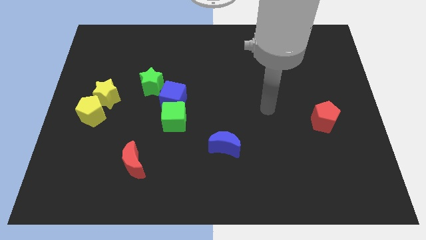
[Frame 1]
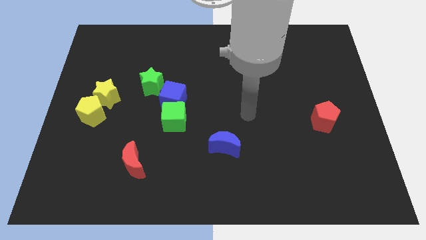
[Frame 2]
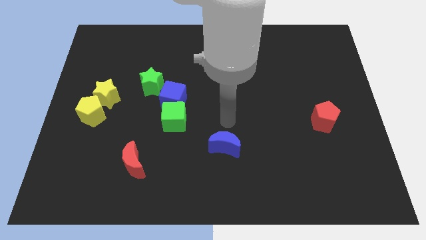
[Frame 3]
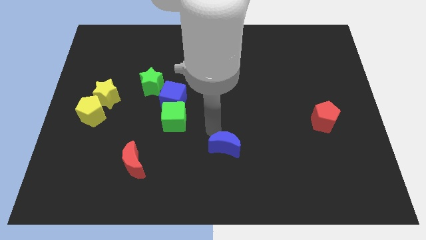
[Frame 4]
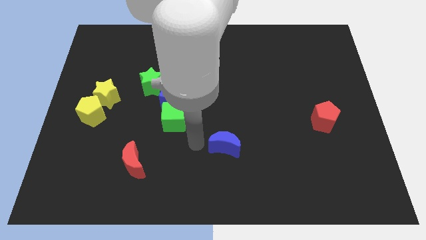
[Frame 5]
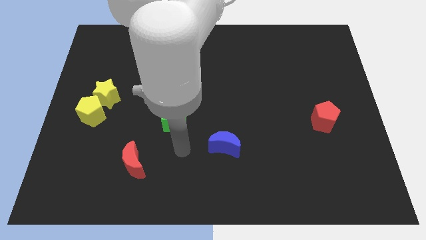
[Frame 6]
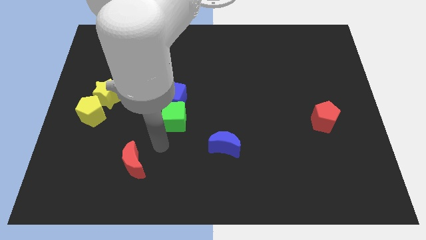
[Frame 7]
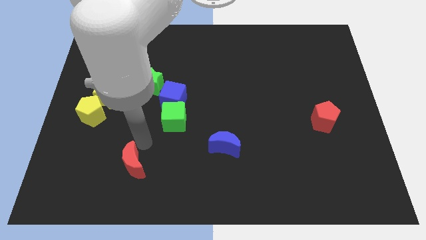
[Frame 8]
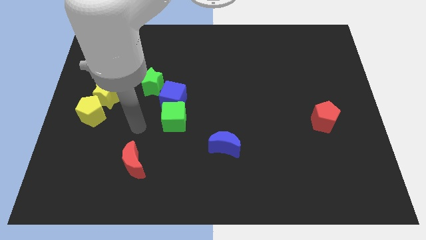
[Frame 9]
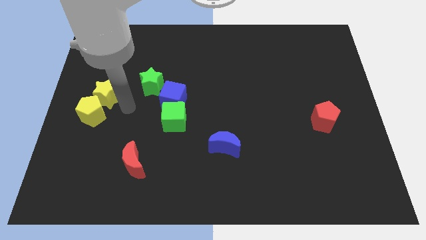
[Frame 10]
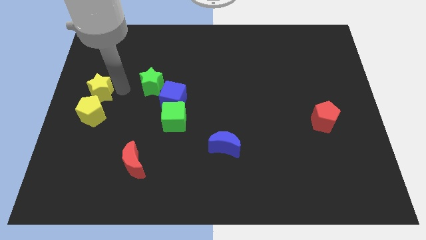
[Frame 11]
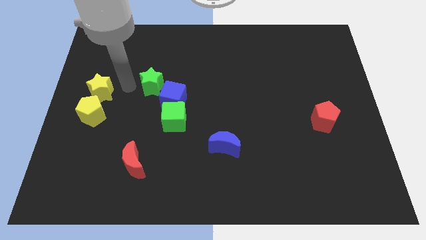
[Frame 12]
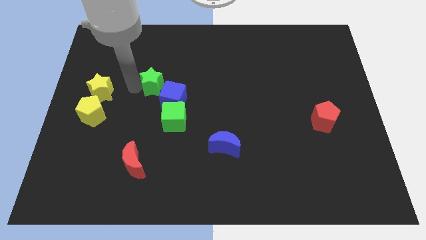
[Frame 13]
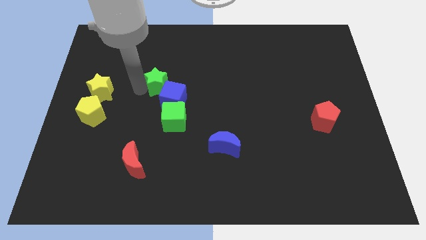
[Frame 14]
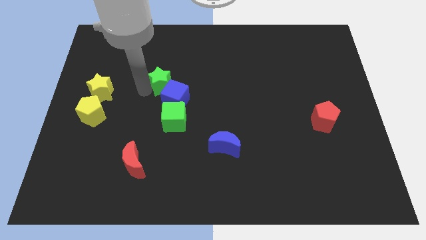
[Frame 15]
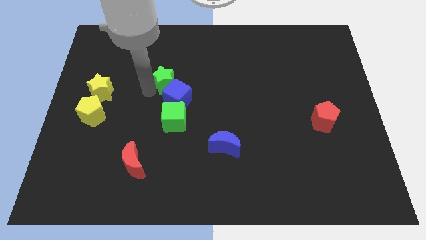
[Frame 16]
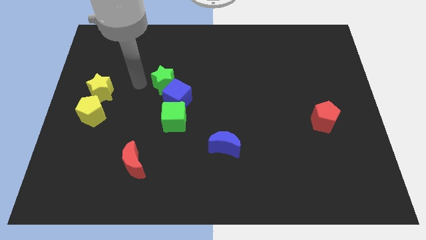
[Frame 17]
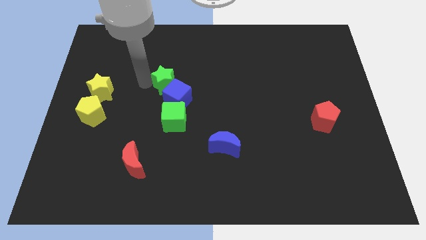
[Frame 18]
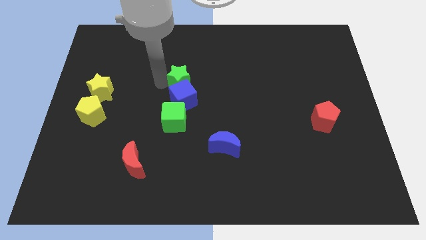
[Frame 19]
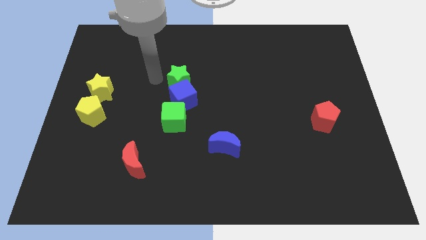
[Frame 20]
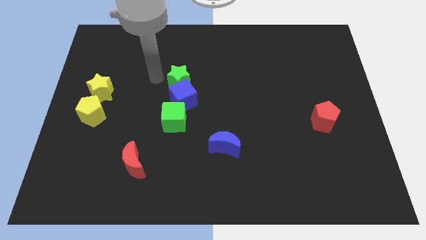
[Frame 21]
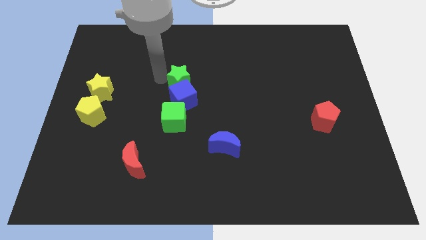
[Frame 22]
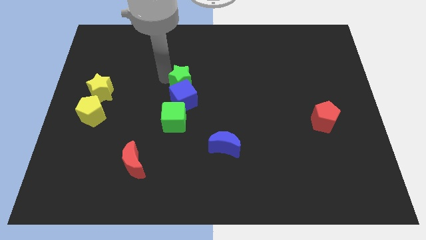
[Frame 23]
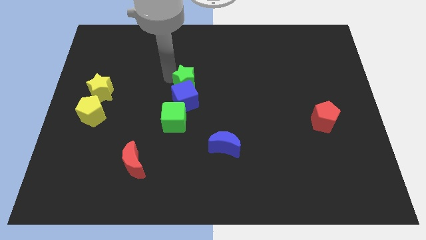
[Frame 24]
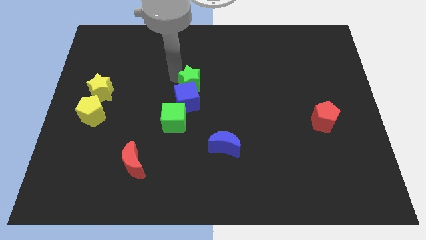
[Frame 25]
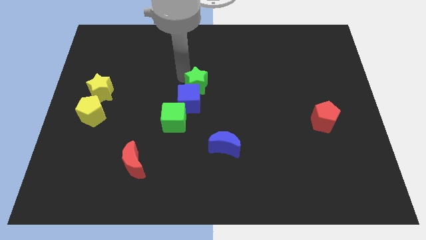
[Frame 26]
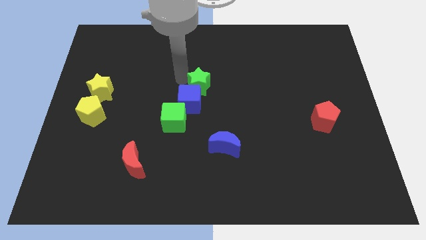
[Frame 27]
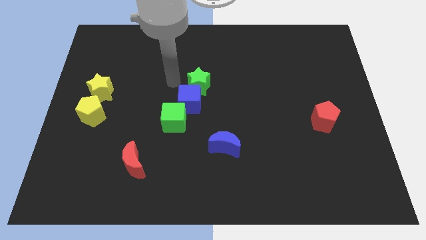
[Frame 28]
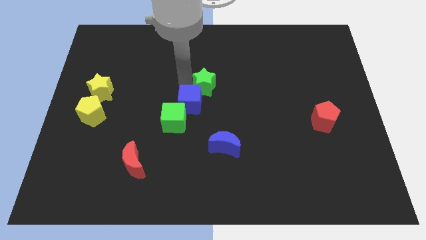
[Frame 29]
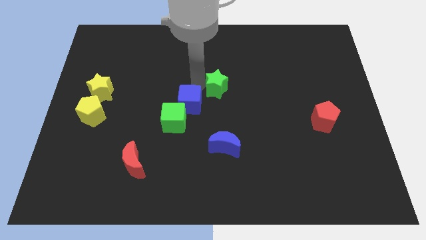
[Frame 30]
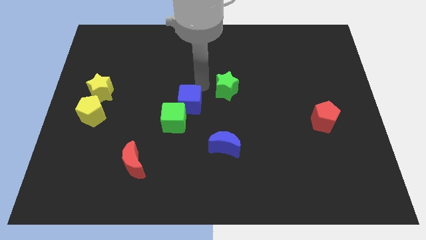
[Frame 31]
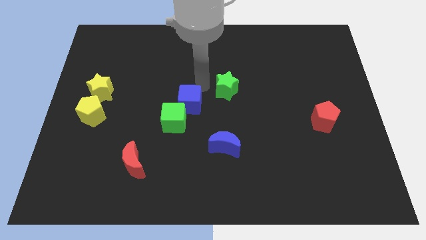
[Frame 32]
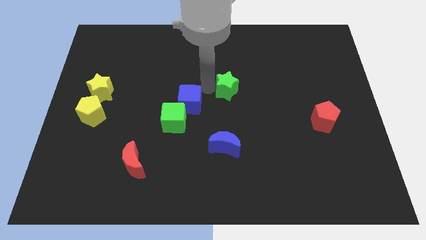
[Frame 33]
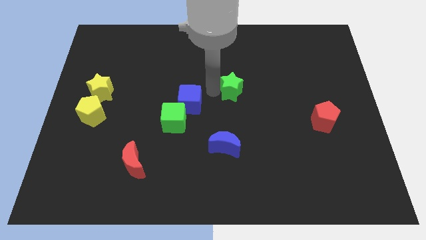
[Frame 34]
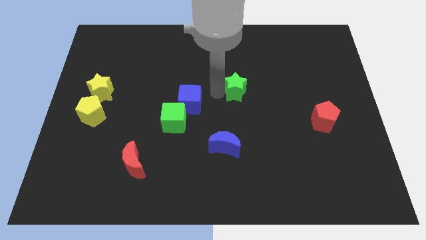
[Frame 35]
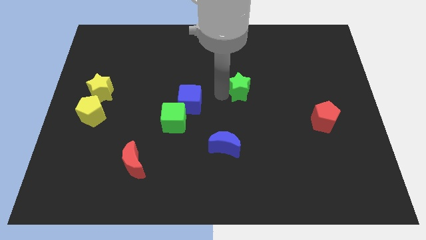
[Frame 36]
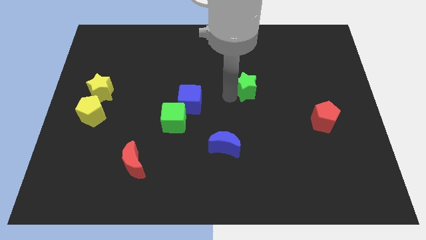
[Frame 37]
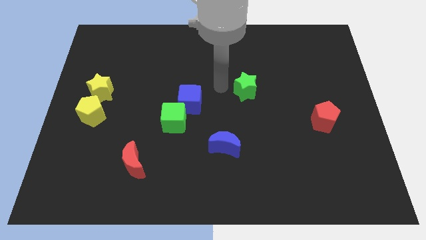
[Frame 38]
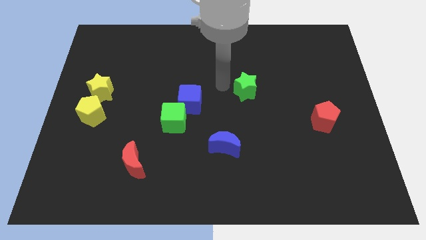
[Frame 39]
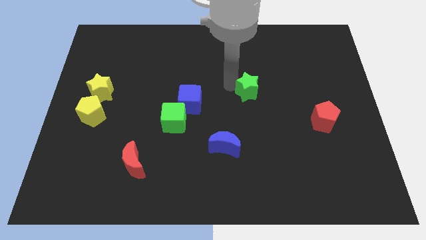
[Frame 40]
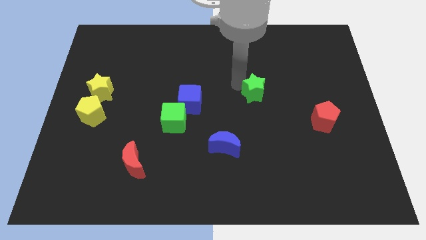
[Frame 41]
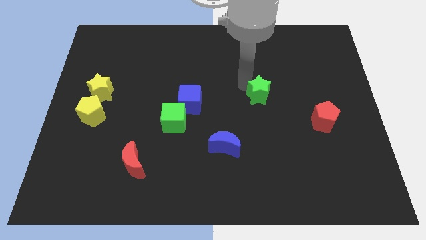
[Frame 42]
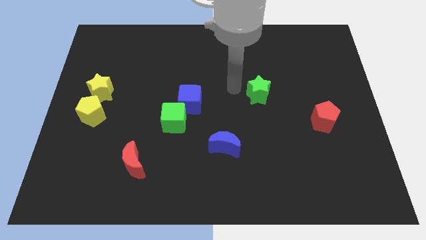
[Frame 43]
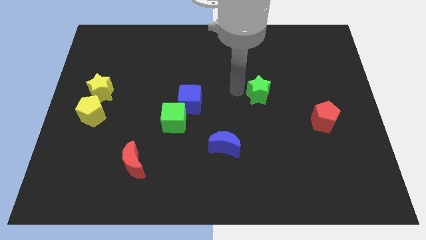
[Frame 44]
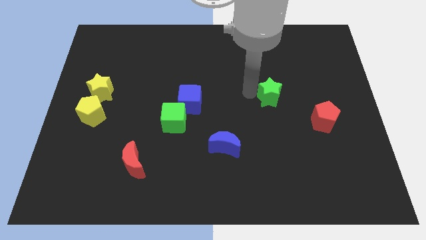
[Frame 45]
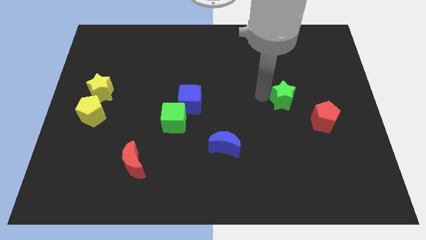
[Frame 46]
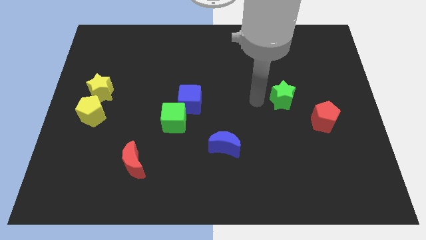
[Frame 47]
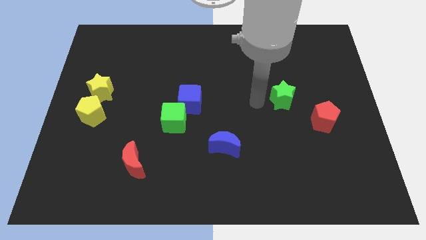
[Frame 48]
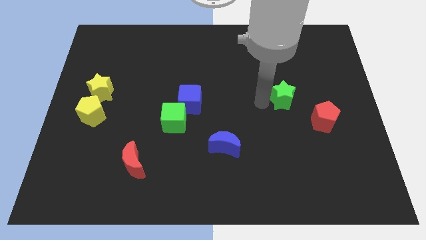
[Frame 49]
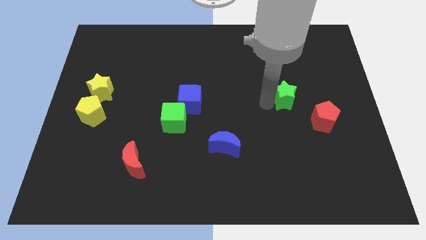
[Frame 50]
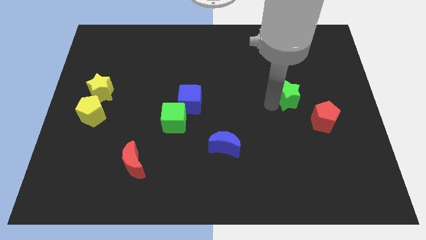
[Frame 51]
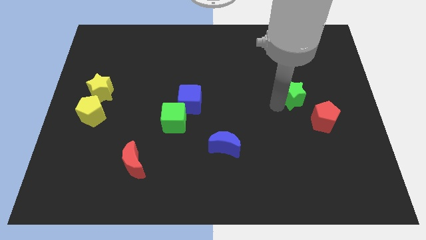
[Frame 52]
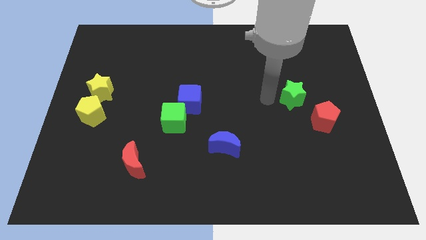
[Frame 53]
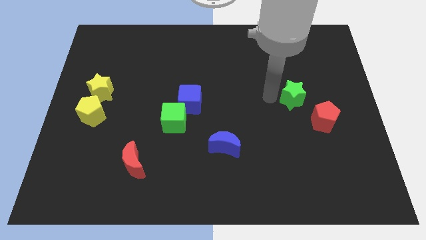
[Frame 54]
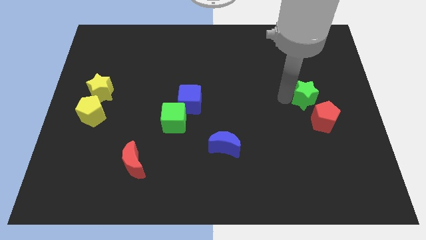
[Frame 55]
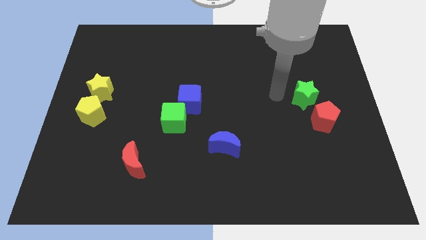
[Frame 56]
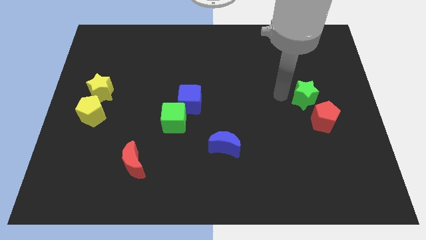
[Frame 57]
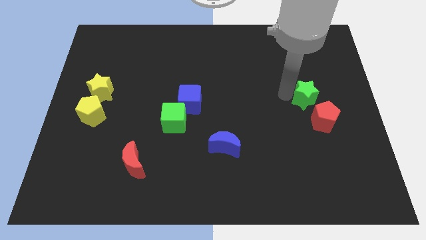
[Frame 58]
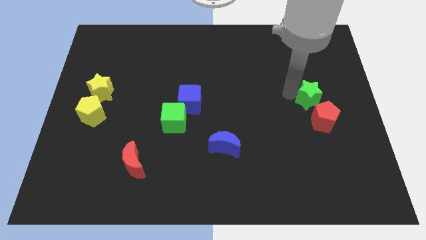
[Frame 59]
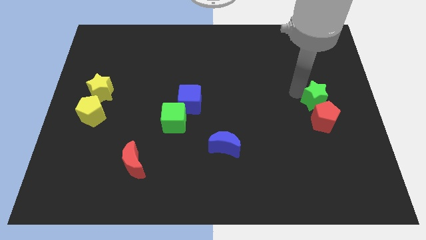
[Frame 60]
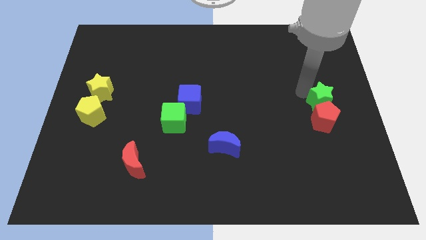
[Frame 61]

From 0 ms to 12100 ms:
put the green star to the center right
